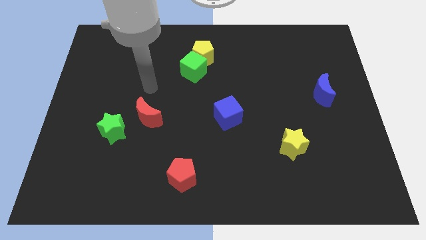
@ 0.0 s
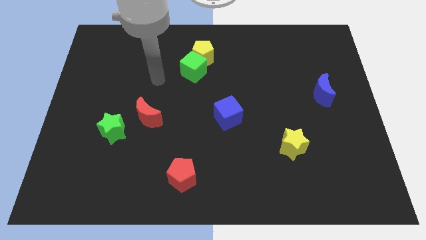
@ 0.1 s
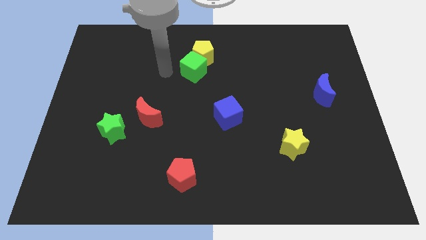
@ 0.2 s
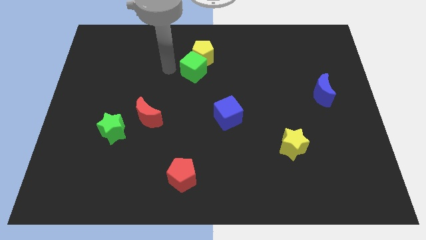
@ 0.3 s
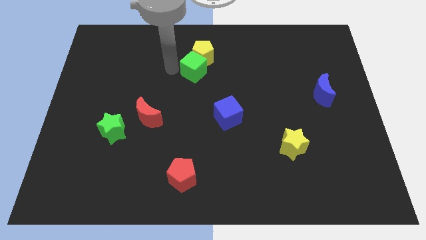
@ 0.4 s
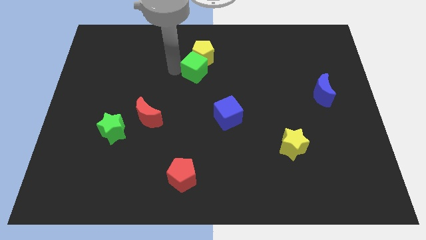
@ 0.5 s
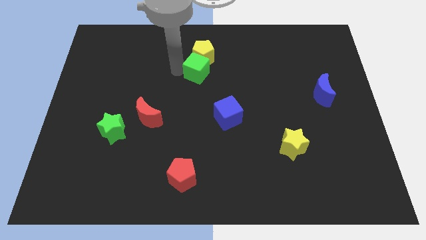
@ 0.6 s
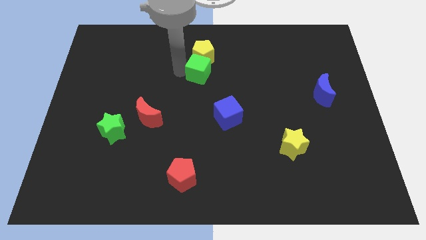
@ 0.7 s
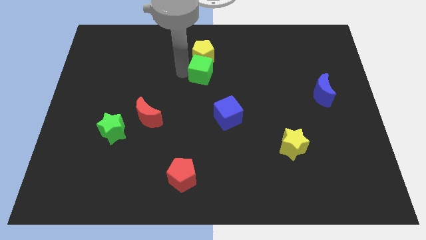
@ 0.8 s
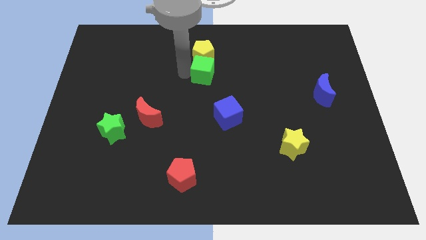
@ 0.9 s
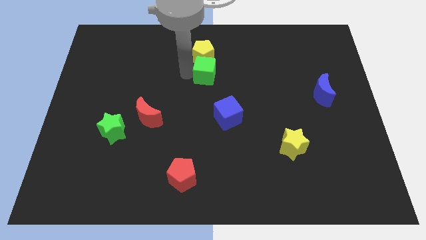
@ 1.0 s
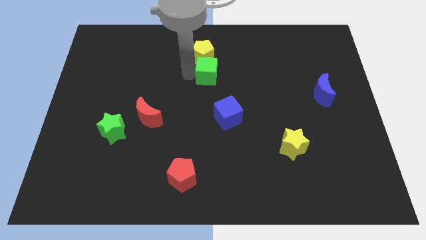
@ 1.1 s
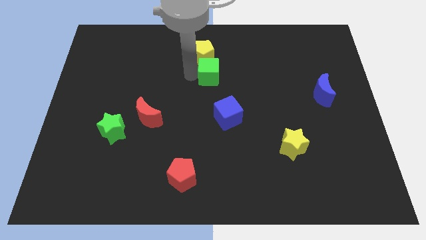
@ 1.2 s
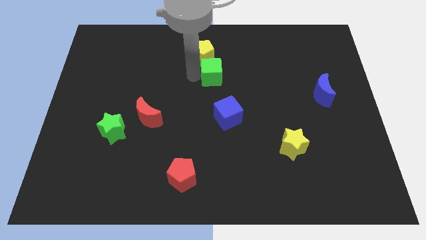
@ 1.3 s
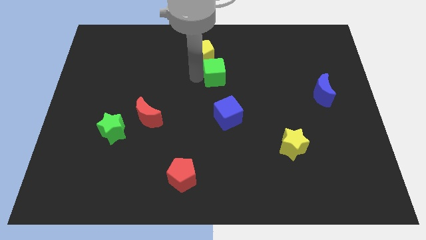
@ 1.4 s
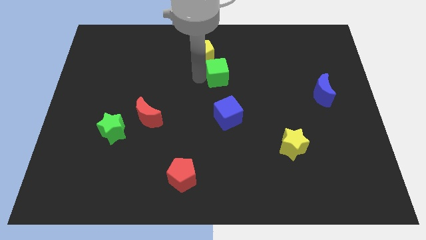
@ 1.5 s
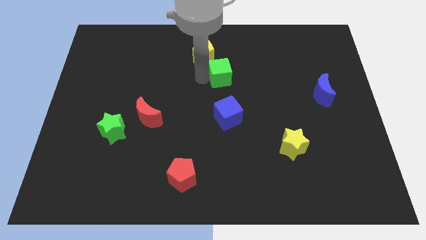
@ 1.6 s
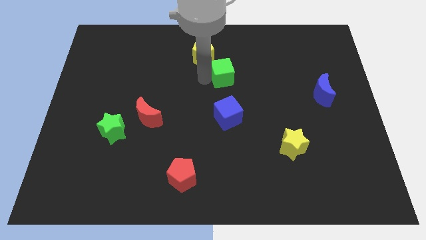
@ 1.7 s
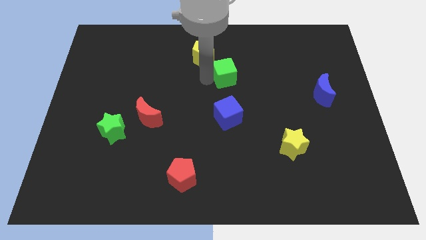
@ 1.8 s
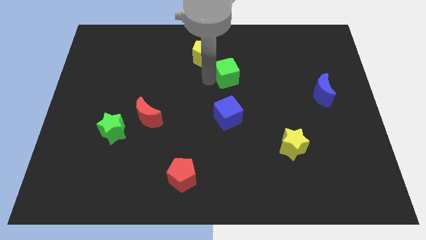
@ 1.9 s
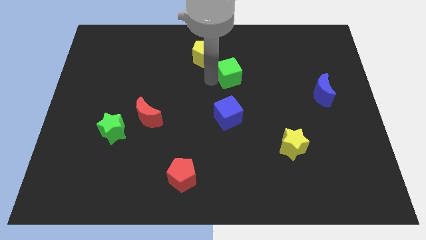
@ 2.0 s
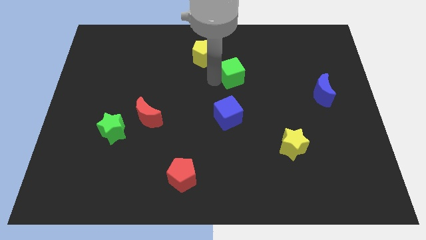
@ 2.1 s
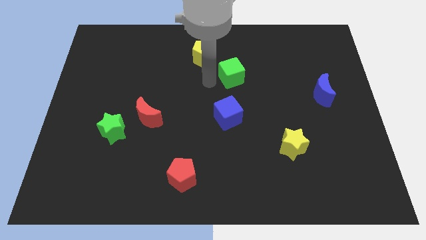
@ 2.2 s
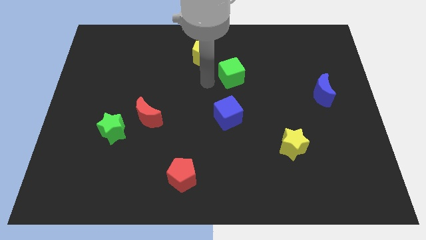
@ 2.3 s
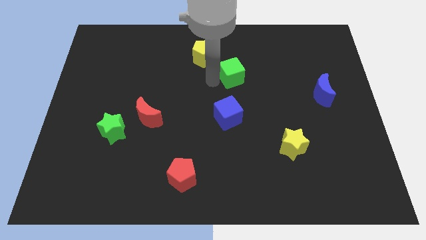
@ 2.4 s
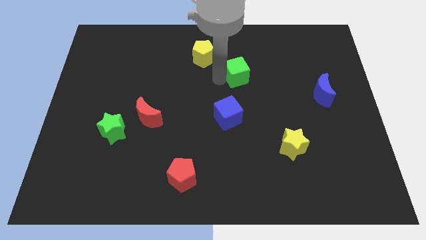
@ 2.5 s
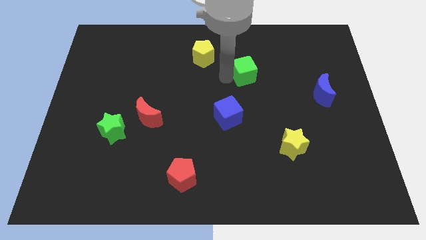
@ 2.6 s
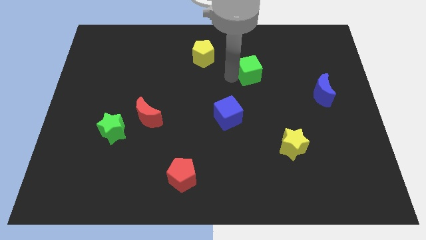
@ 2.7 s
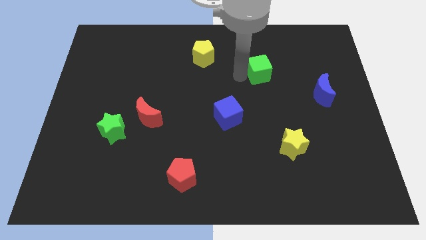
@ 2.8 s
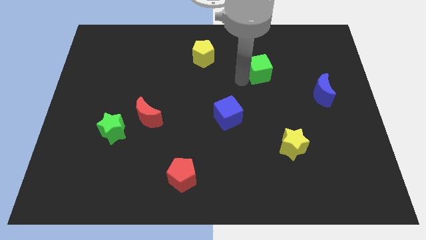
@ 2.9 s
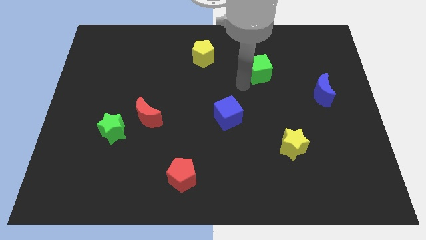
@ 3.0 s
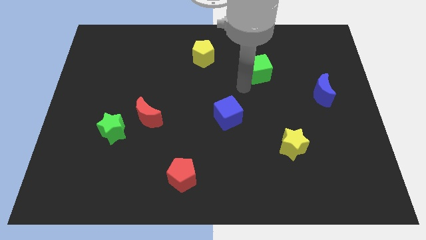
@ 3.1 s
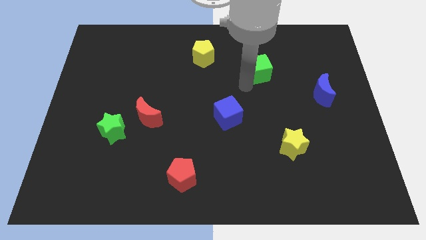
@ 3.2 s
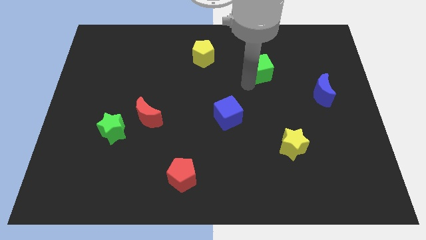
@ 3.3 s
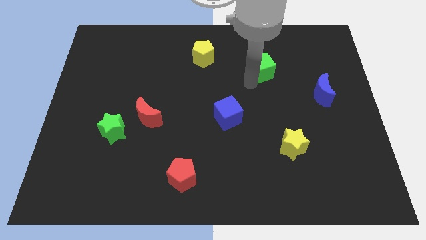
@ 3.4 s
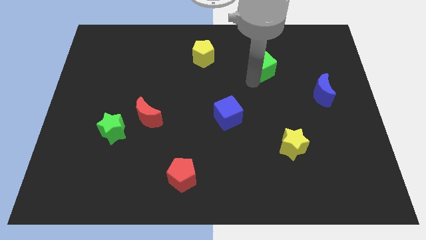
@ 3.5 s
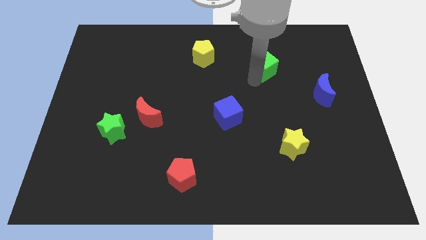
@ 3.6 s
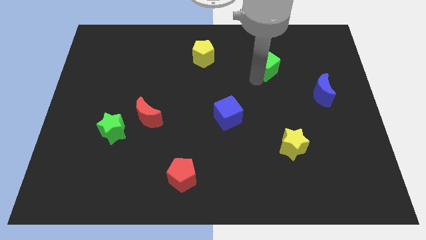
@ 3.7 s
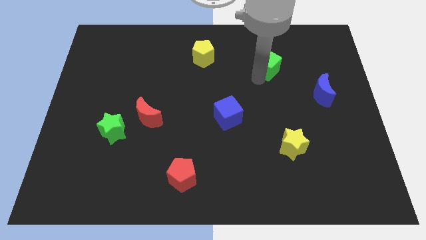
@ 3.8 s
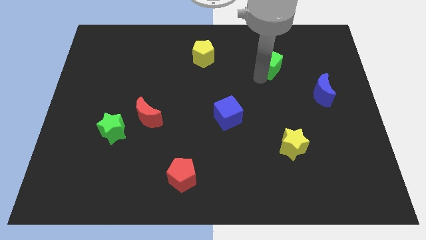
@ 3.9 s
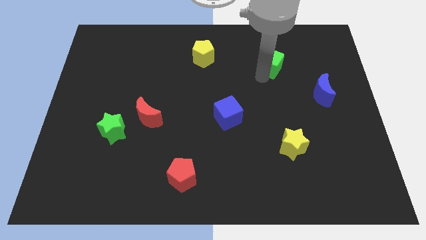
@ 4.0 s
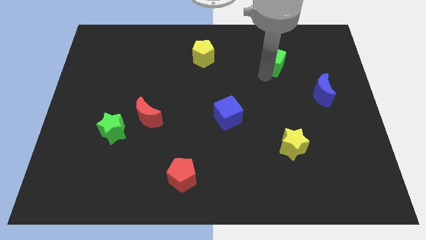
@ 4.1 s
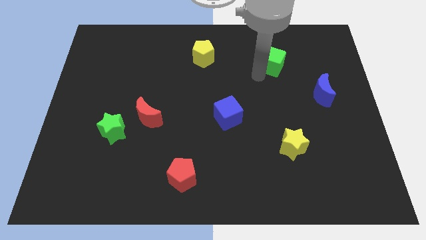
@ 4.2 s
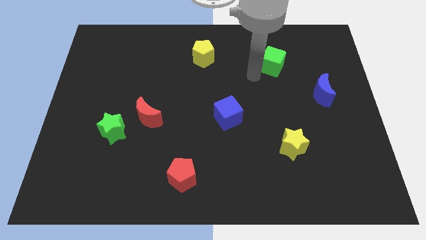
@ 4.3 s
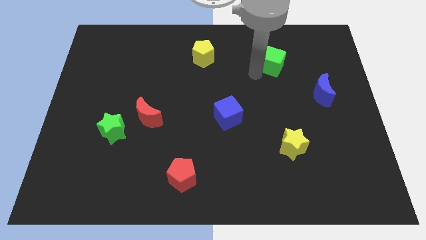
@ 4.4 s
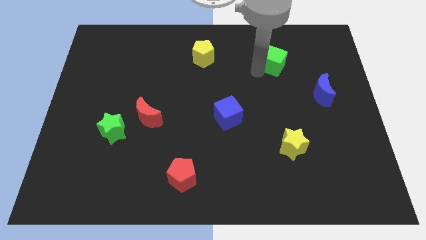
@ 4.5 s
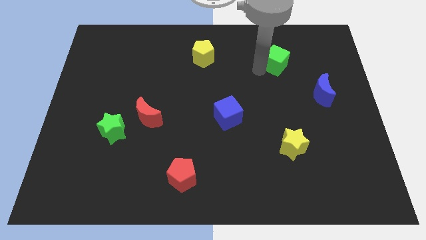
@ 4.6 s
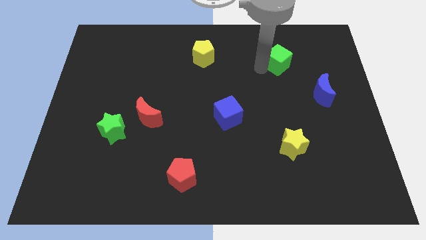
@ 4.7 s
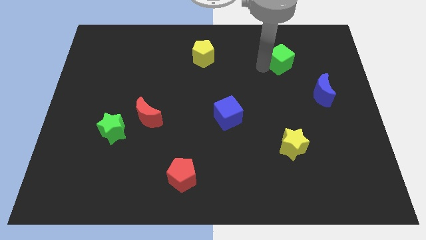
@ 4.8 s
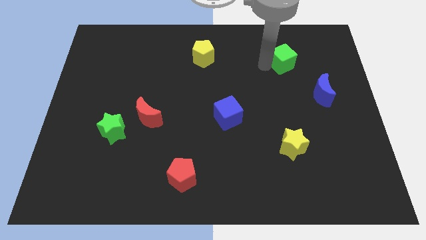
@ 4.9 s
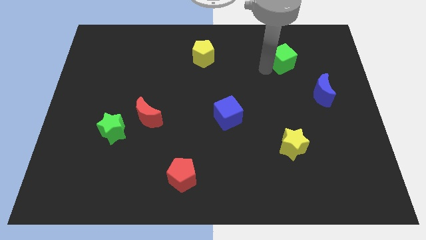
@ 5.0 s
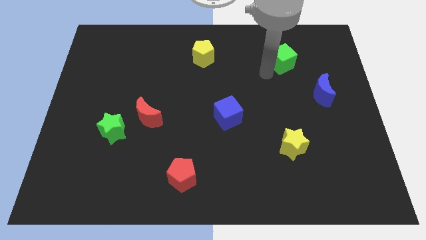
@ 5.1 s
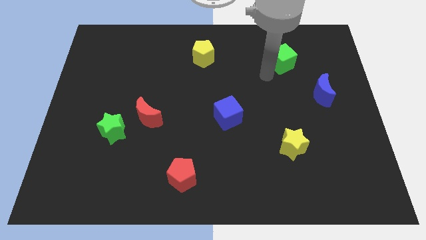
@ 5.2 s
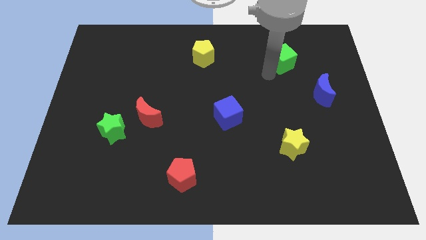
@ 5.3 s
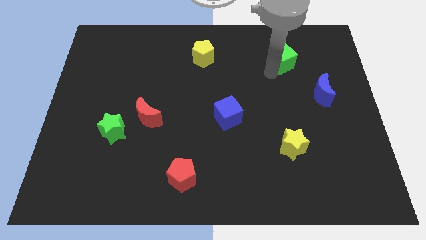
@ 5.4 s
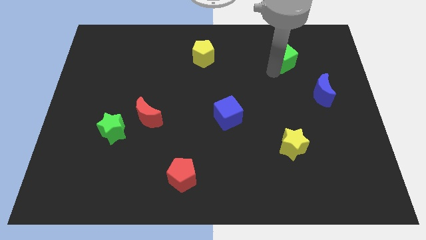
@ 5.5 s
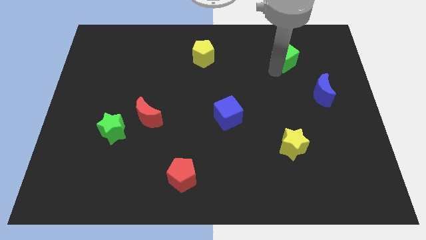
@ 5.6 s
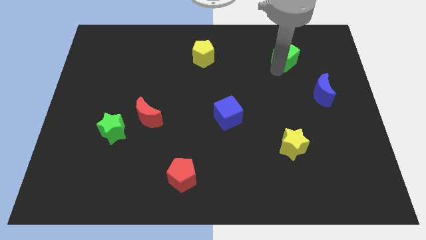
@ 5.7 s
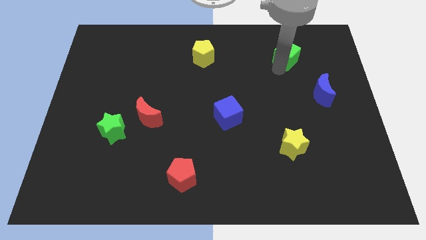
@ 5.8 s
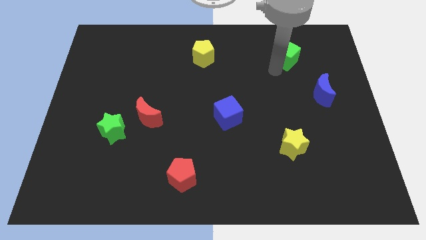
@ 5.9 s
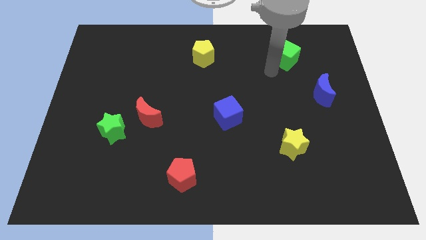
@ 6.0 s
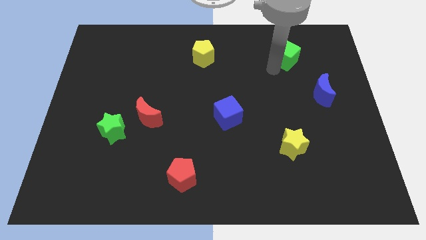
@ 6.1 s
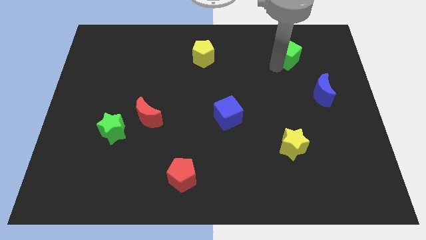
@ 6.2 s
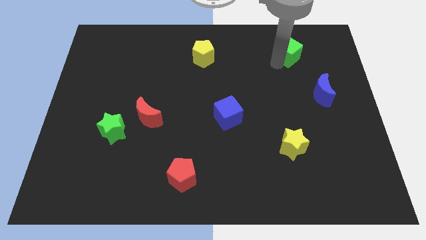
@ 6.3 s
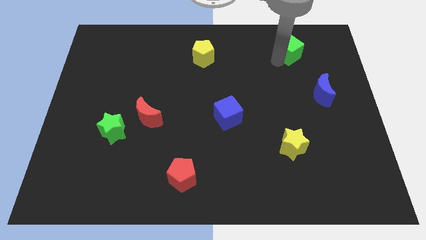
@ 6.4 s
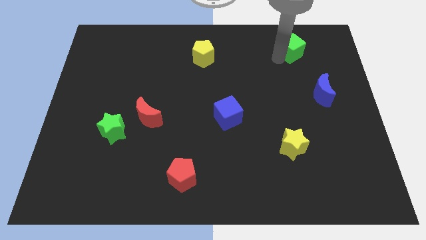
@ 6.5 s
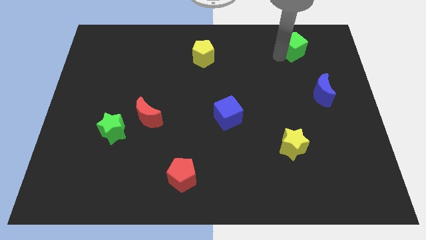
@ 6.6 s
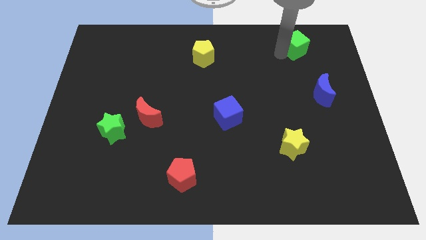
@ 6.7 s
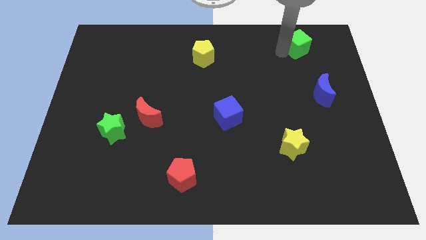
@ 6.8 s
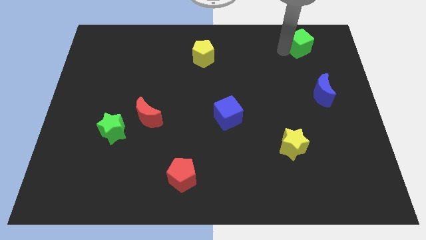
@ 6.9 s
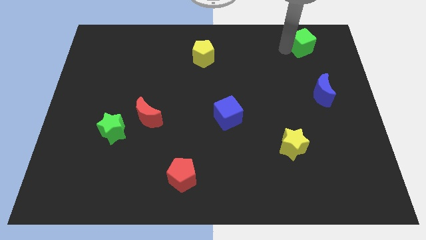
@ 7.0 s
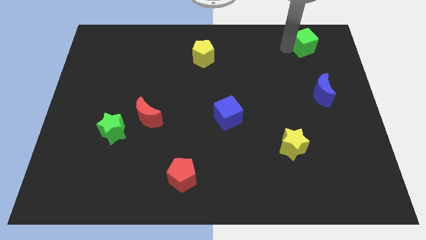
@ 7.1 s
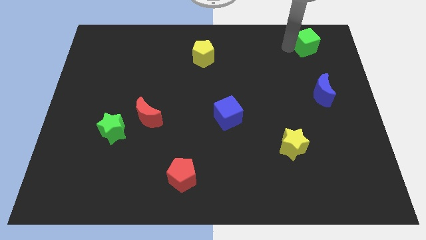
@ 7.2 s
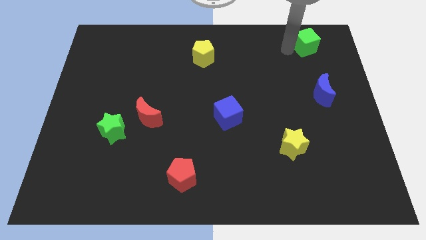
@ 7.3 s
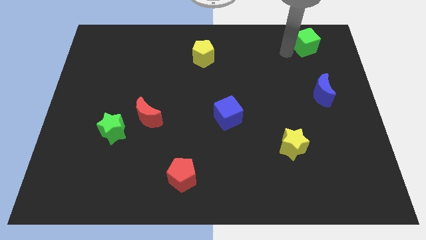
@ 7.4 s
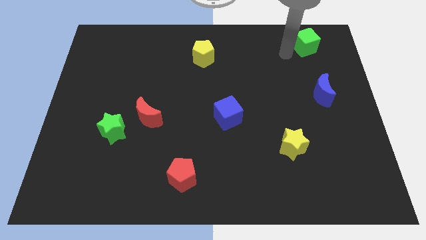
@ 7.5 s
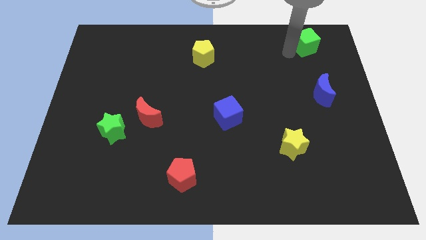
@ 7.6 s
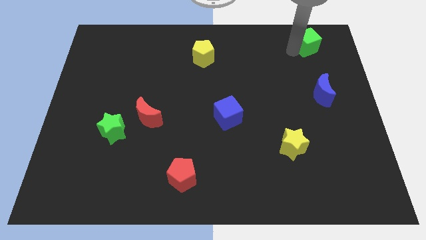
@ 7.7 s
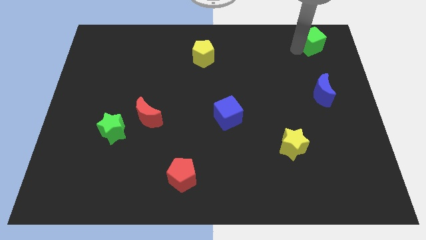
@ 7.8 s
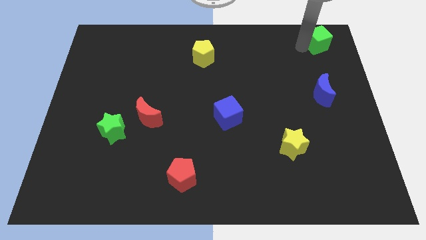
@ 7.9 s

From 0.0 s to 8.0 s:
push the green cube to the top right
